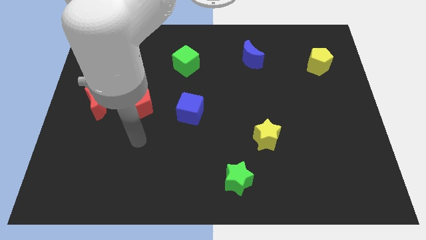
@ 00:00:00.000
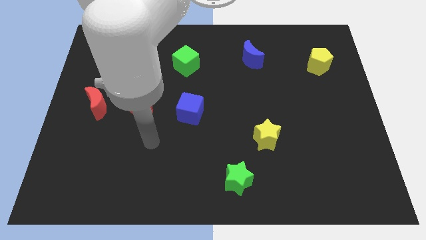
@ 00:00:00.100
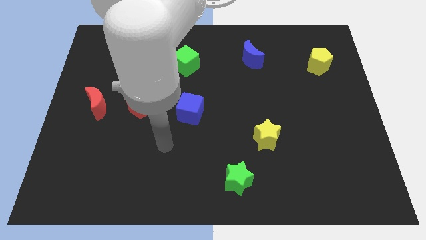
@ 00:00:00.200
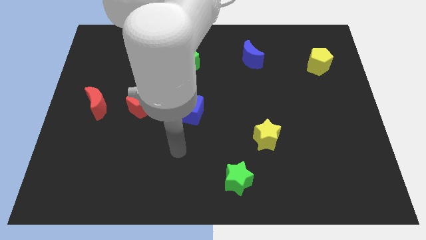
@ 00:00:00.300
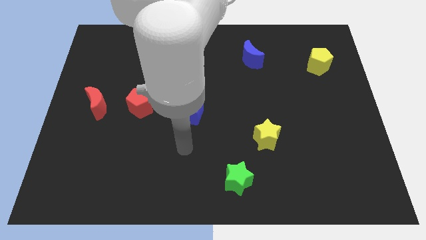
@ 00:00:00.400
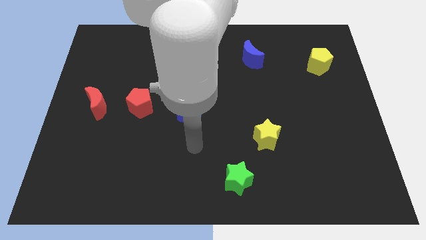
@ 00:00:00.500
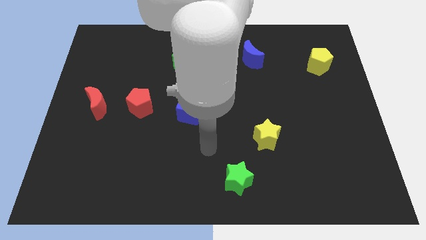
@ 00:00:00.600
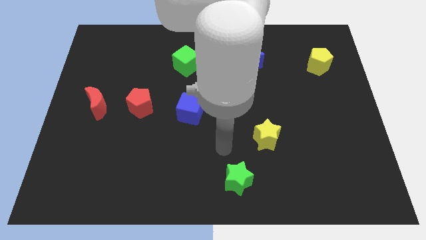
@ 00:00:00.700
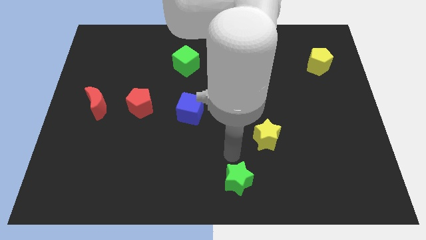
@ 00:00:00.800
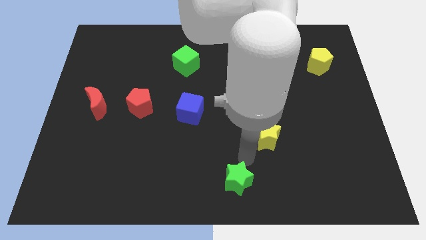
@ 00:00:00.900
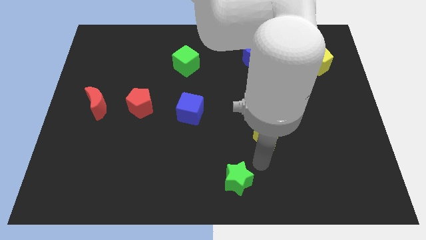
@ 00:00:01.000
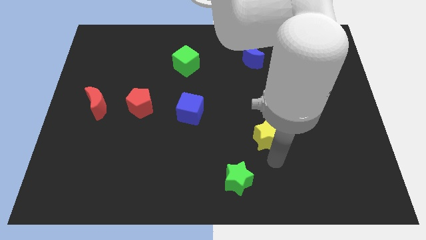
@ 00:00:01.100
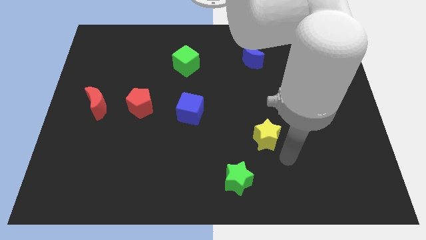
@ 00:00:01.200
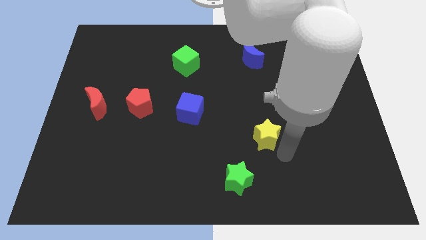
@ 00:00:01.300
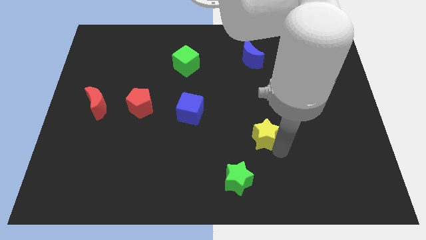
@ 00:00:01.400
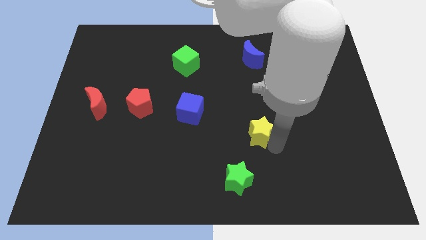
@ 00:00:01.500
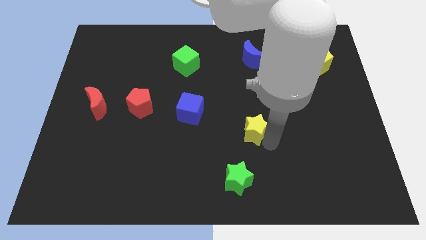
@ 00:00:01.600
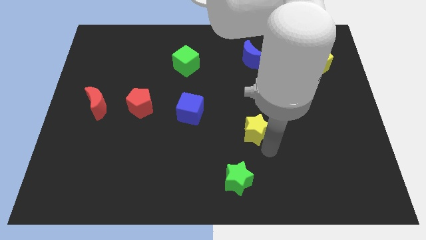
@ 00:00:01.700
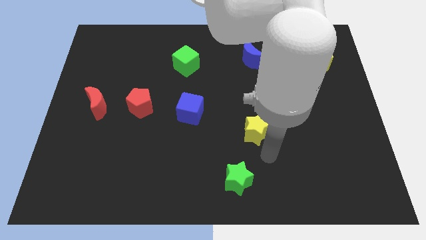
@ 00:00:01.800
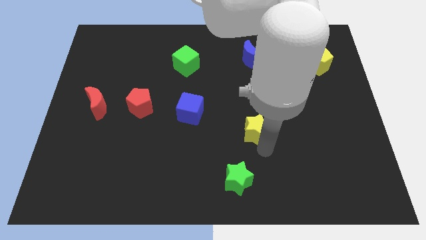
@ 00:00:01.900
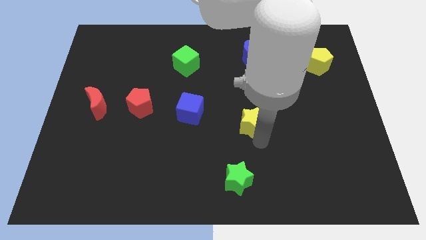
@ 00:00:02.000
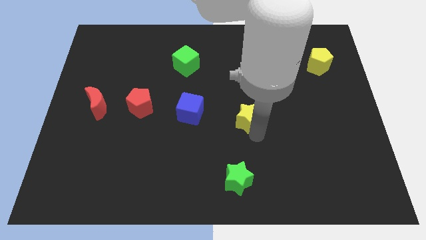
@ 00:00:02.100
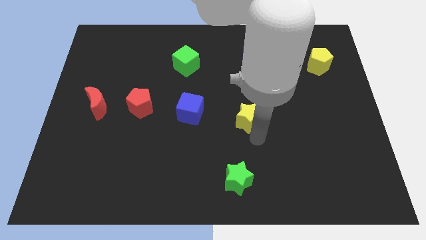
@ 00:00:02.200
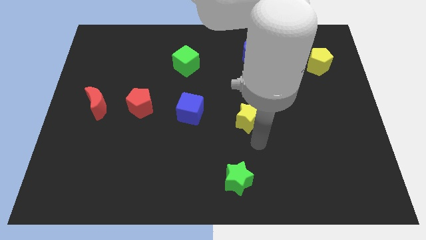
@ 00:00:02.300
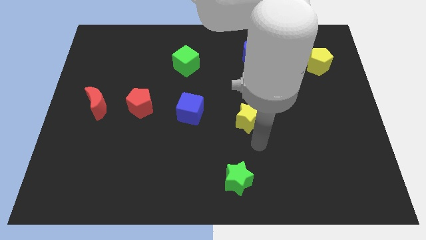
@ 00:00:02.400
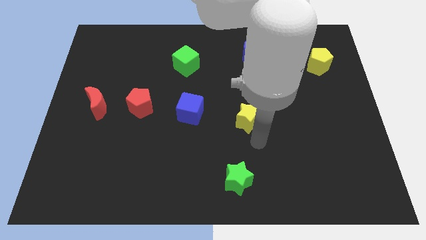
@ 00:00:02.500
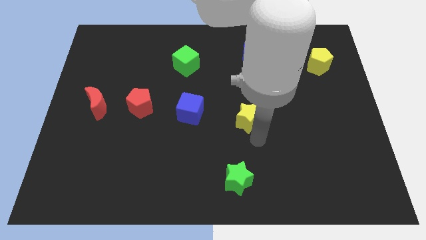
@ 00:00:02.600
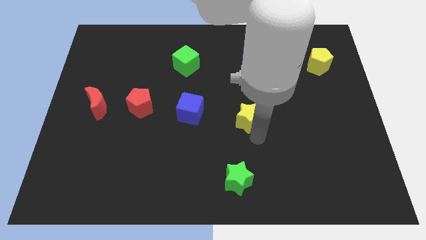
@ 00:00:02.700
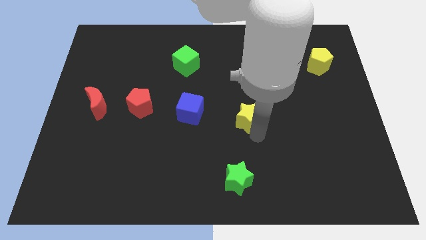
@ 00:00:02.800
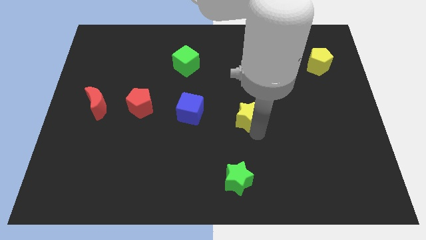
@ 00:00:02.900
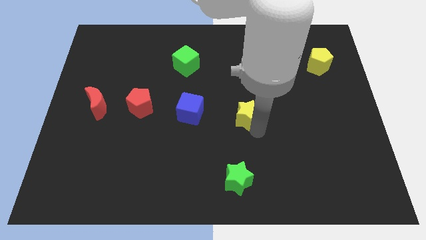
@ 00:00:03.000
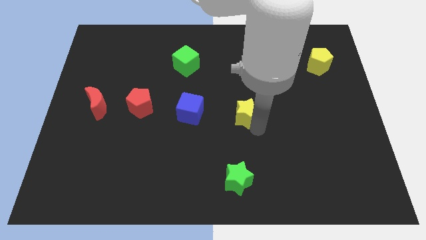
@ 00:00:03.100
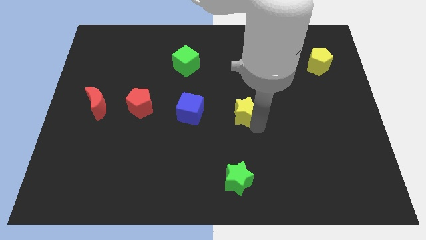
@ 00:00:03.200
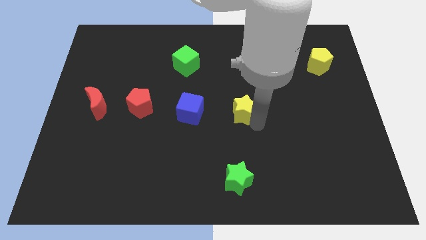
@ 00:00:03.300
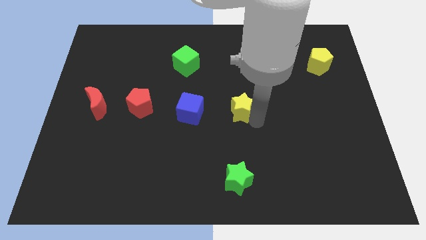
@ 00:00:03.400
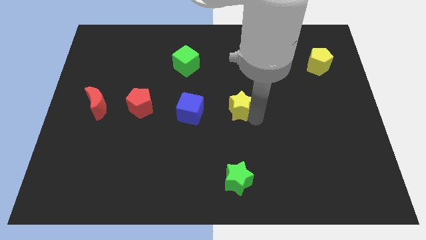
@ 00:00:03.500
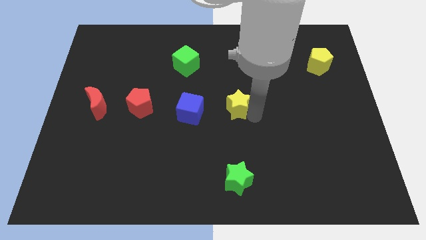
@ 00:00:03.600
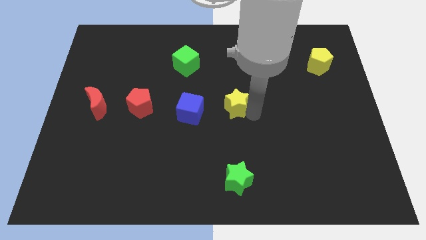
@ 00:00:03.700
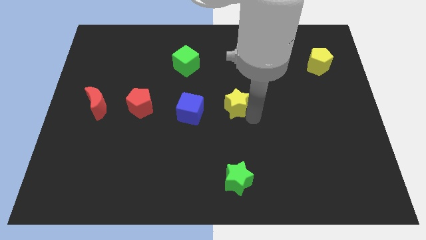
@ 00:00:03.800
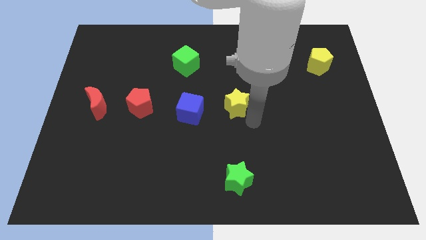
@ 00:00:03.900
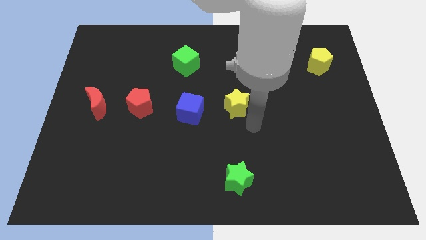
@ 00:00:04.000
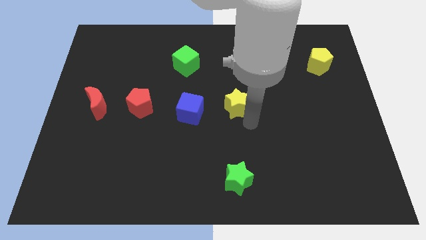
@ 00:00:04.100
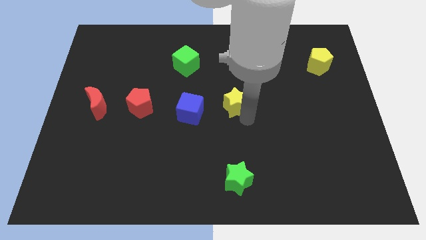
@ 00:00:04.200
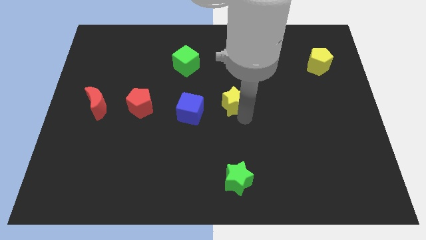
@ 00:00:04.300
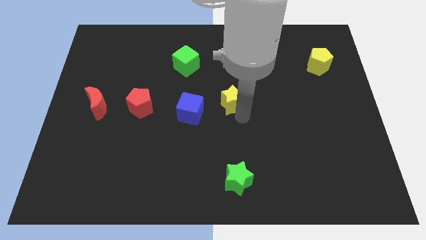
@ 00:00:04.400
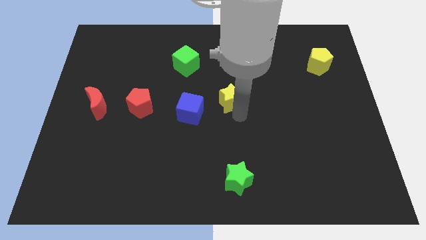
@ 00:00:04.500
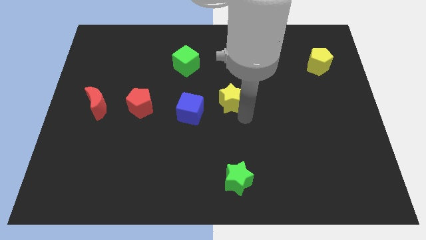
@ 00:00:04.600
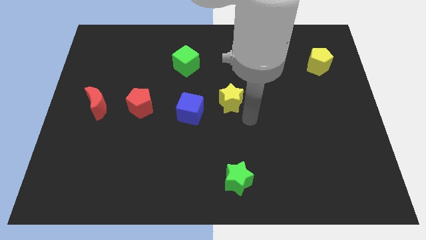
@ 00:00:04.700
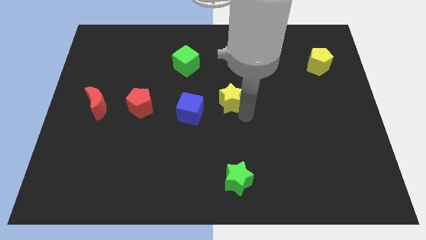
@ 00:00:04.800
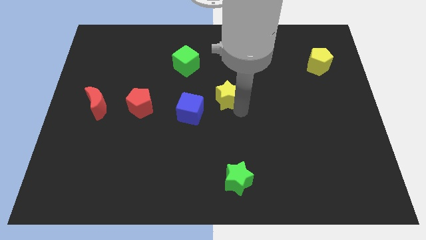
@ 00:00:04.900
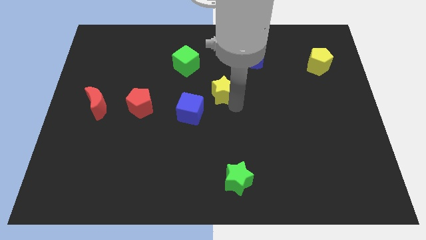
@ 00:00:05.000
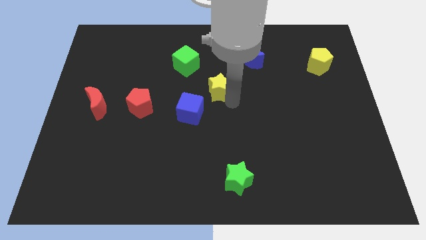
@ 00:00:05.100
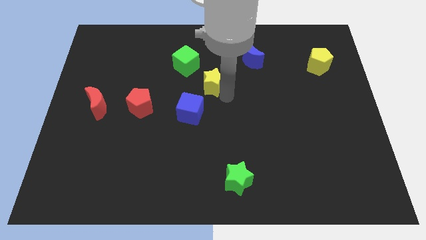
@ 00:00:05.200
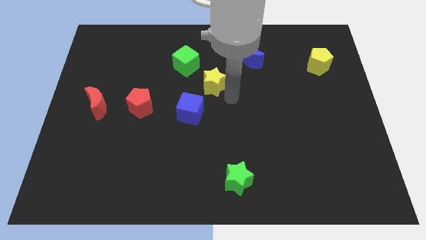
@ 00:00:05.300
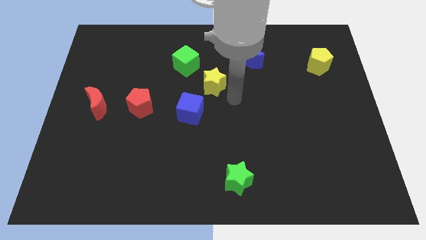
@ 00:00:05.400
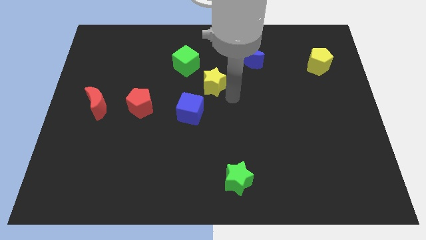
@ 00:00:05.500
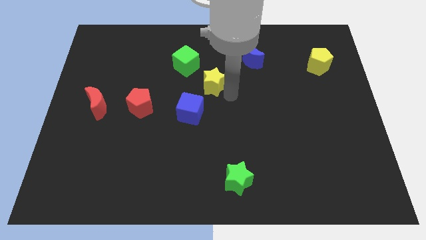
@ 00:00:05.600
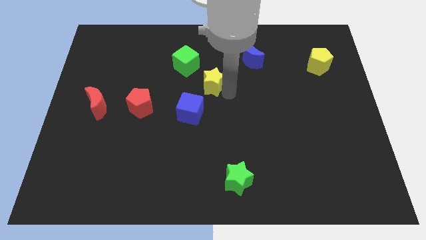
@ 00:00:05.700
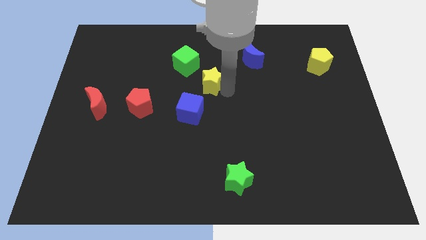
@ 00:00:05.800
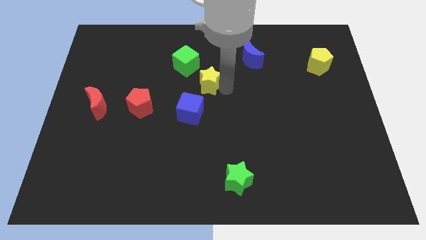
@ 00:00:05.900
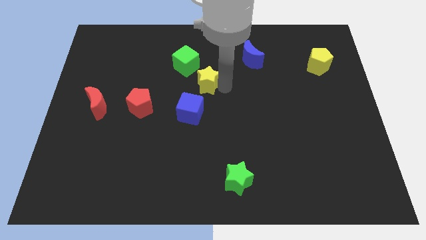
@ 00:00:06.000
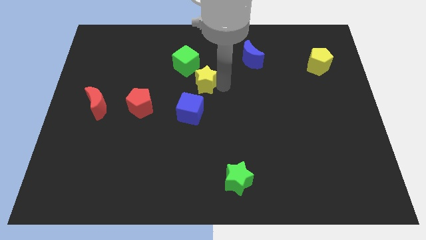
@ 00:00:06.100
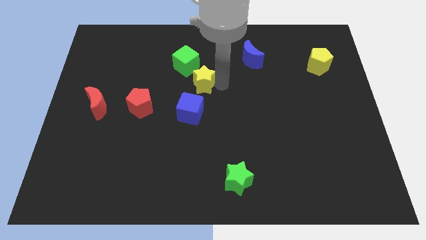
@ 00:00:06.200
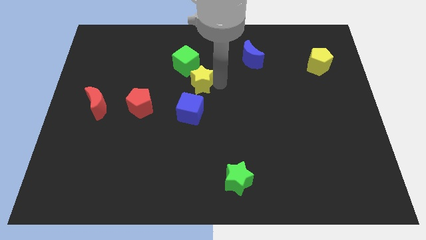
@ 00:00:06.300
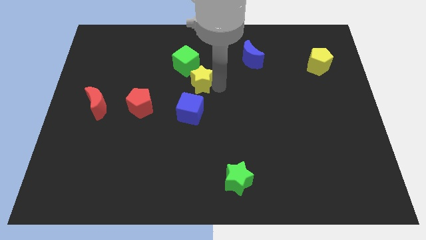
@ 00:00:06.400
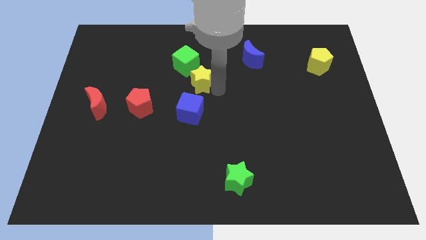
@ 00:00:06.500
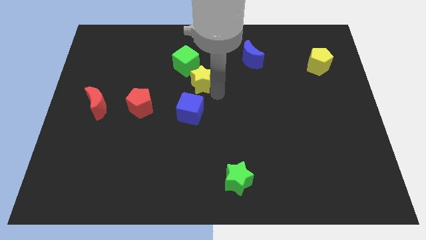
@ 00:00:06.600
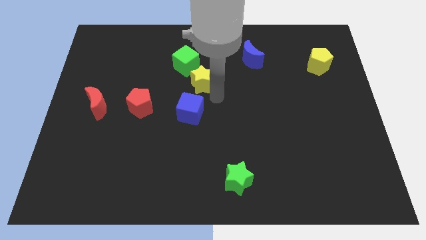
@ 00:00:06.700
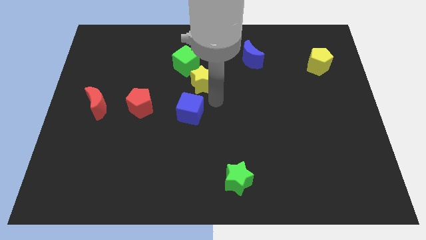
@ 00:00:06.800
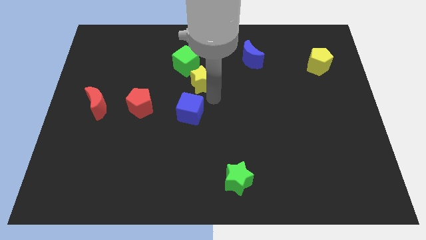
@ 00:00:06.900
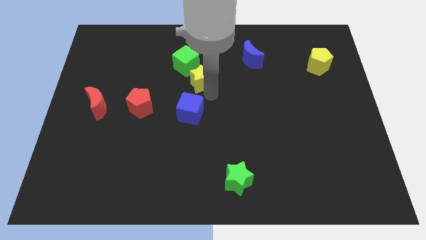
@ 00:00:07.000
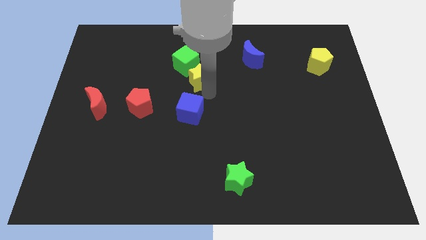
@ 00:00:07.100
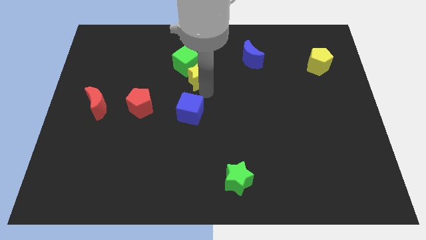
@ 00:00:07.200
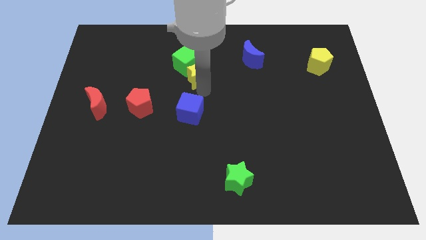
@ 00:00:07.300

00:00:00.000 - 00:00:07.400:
move the yellow star next to the green cube

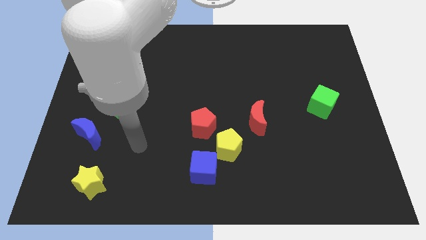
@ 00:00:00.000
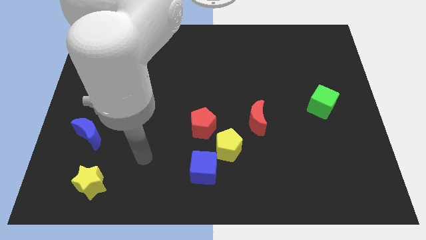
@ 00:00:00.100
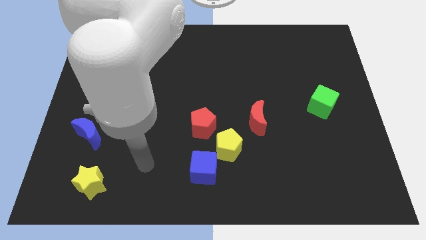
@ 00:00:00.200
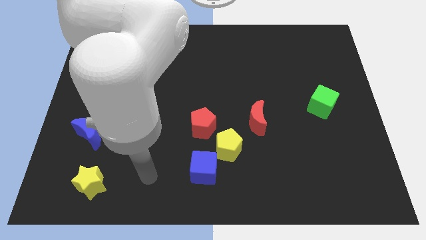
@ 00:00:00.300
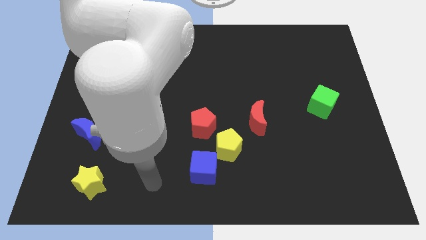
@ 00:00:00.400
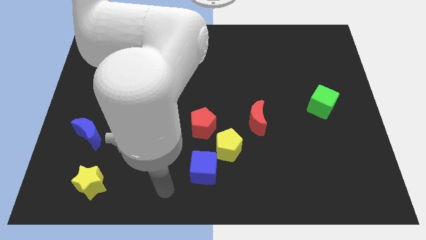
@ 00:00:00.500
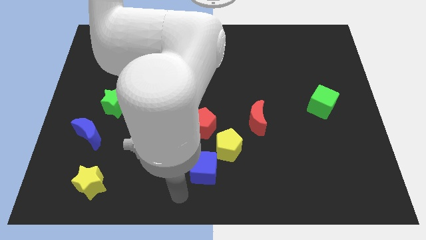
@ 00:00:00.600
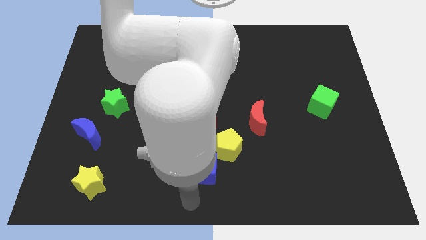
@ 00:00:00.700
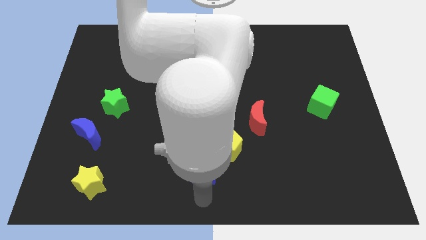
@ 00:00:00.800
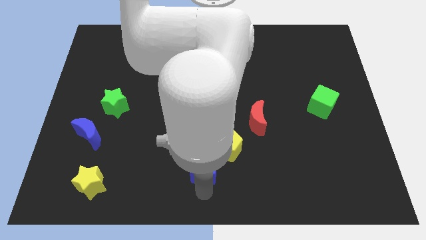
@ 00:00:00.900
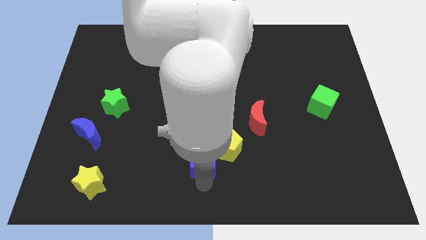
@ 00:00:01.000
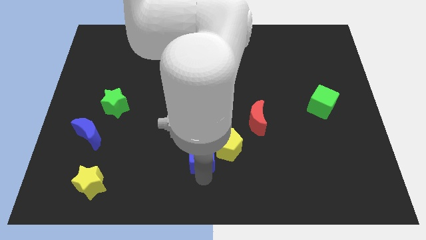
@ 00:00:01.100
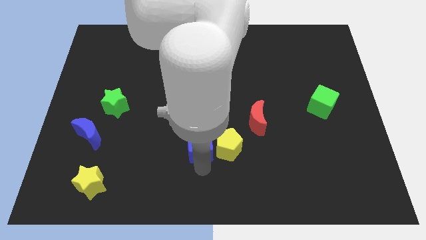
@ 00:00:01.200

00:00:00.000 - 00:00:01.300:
put the blue cube to the red pentagon
